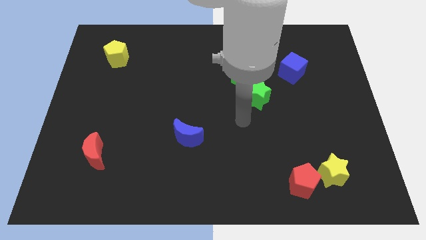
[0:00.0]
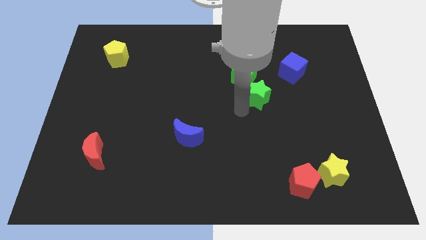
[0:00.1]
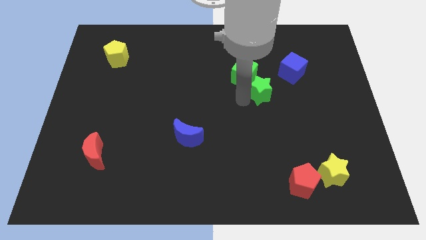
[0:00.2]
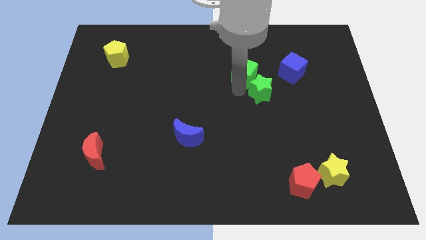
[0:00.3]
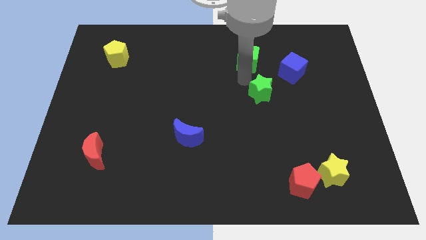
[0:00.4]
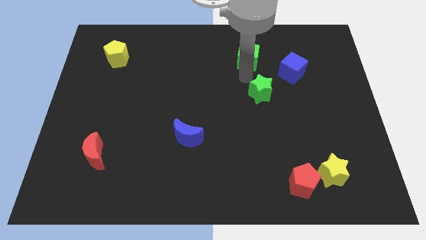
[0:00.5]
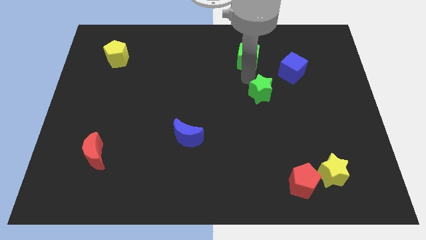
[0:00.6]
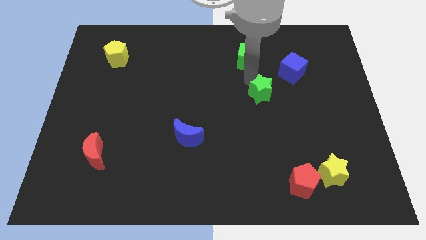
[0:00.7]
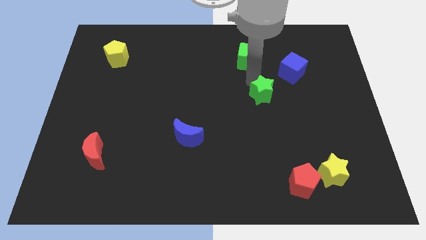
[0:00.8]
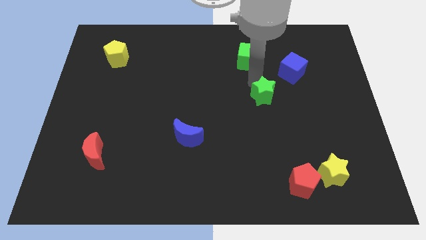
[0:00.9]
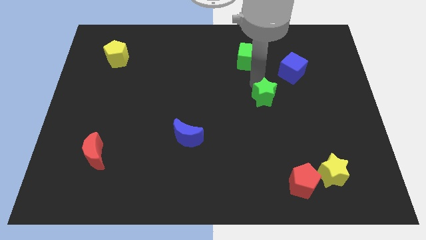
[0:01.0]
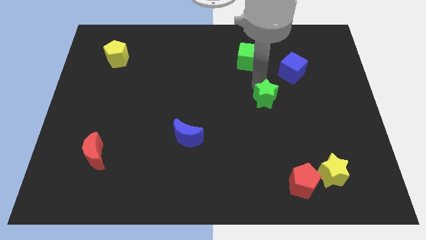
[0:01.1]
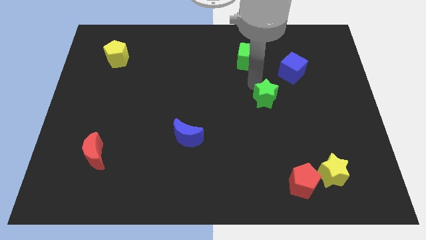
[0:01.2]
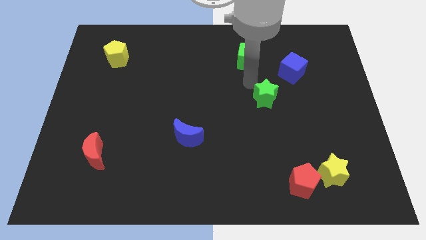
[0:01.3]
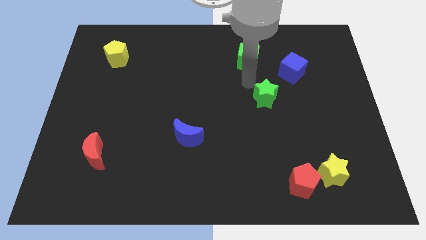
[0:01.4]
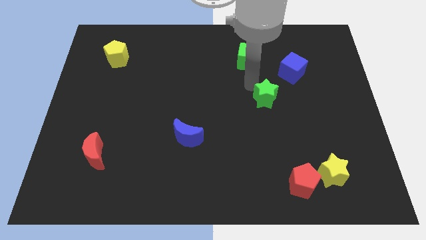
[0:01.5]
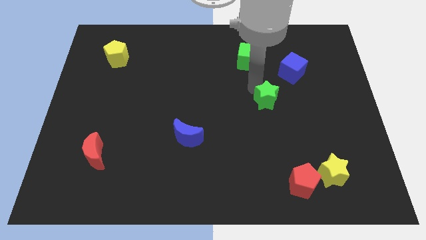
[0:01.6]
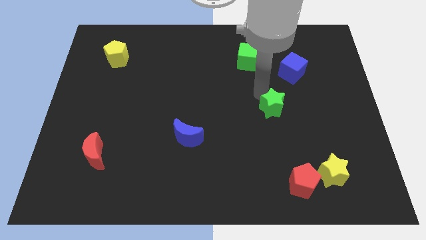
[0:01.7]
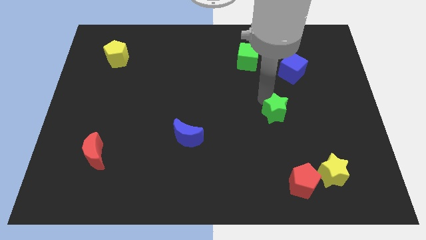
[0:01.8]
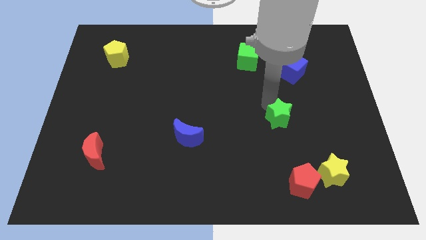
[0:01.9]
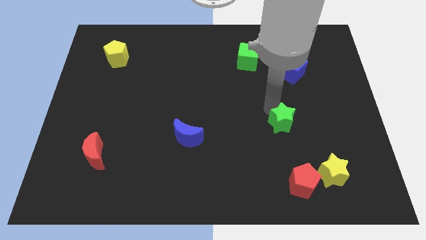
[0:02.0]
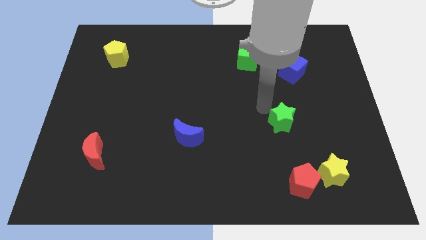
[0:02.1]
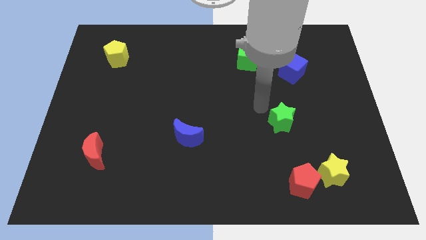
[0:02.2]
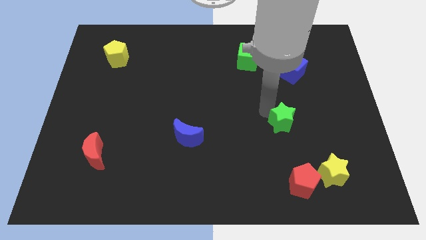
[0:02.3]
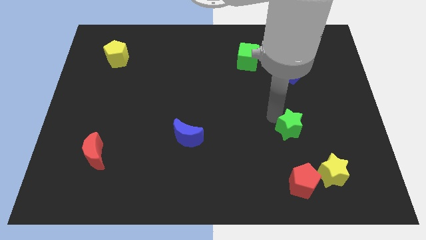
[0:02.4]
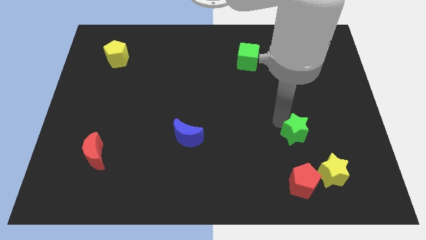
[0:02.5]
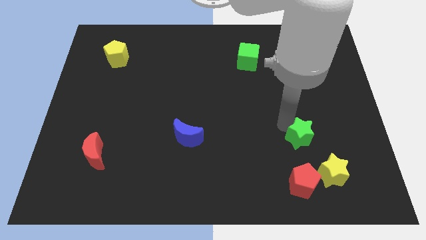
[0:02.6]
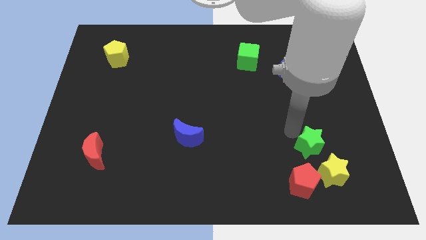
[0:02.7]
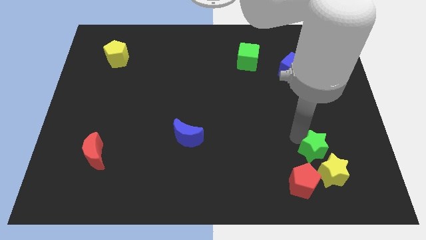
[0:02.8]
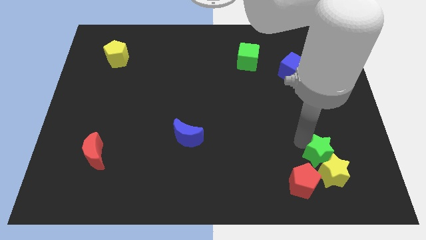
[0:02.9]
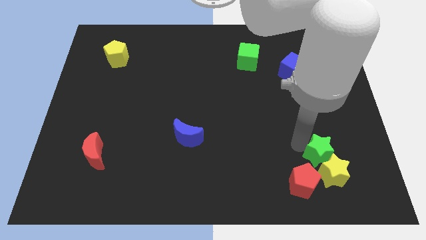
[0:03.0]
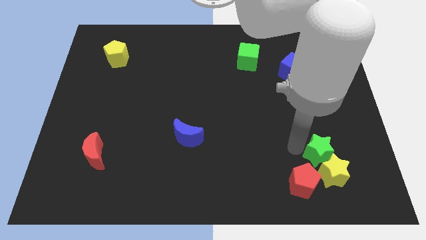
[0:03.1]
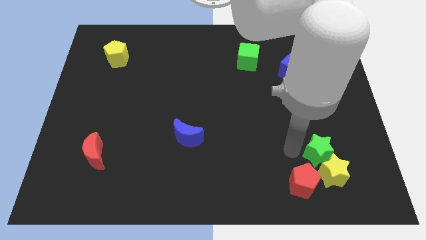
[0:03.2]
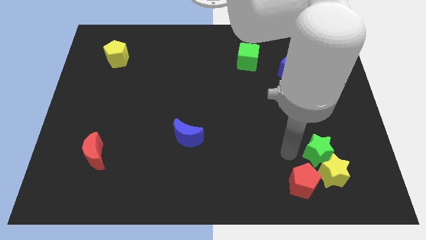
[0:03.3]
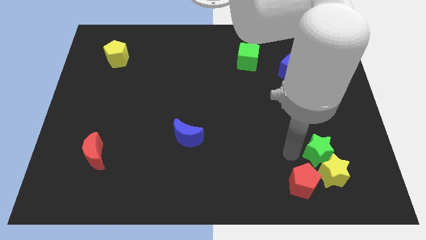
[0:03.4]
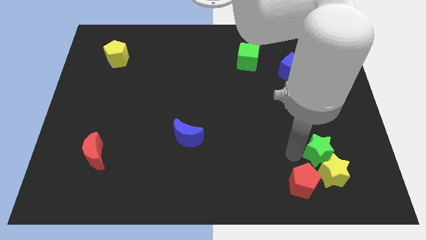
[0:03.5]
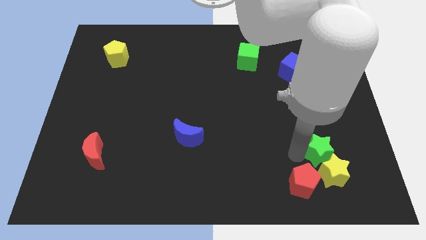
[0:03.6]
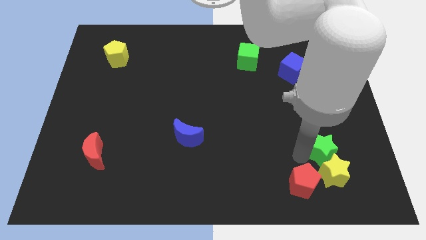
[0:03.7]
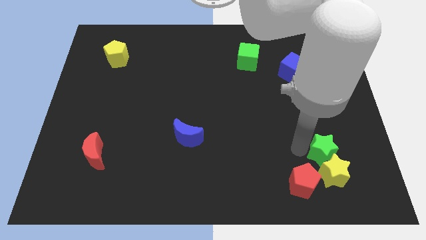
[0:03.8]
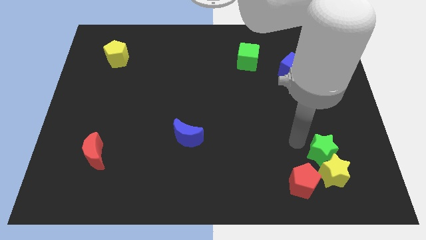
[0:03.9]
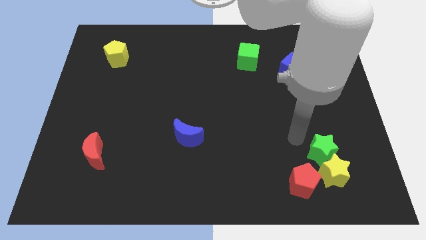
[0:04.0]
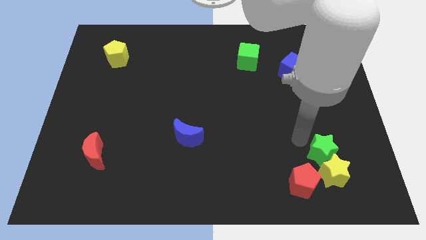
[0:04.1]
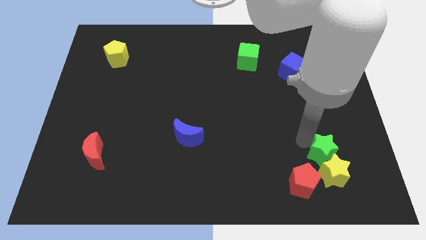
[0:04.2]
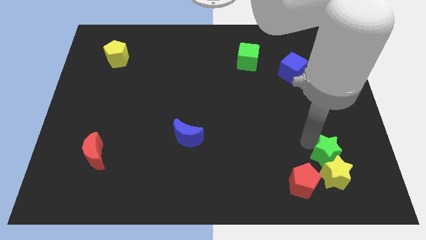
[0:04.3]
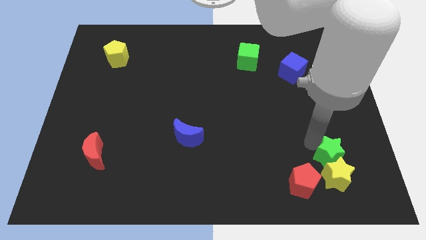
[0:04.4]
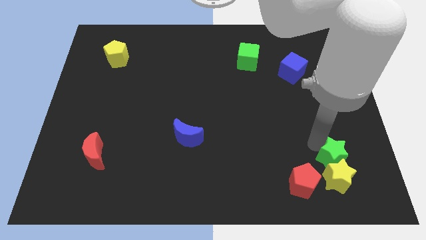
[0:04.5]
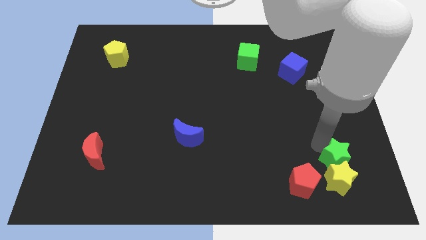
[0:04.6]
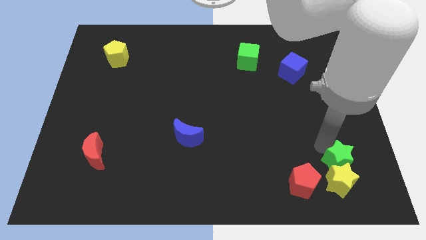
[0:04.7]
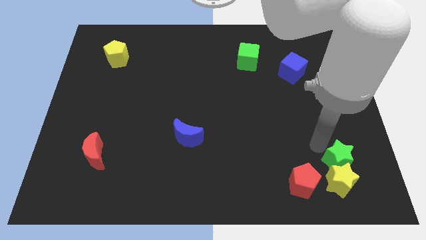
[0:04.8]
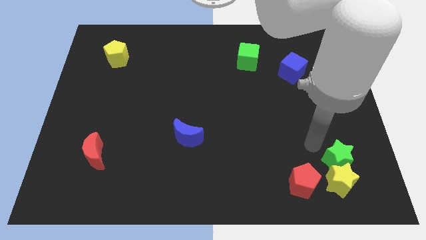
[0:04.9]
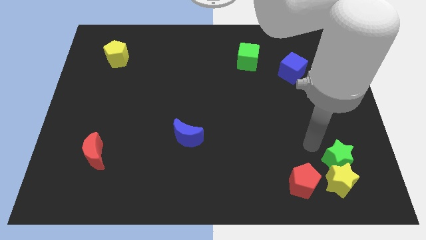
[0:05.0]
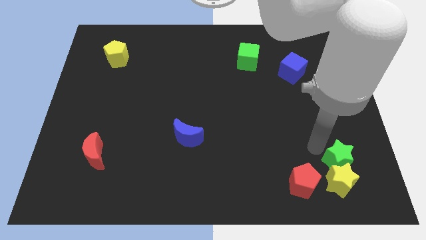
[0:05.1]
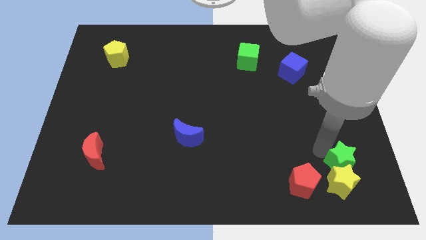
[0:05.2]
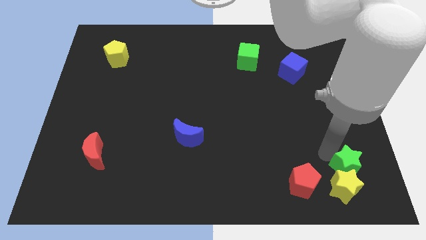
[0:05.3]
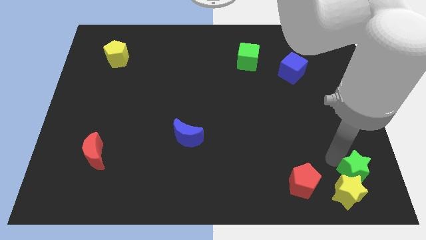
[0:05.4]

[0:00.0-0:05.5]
move the green star to the lower right corner

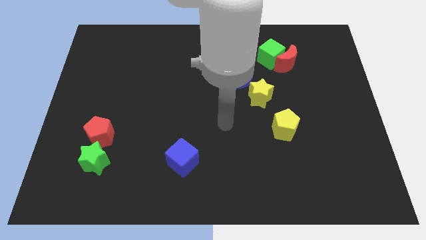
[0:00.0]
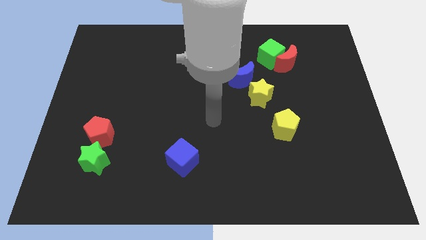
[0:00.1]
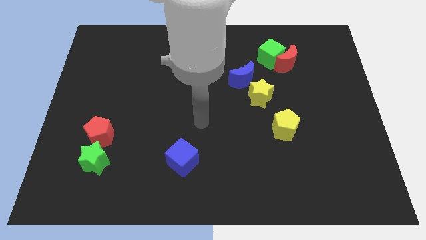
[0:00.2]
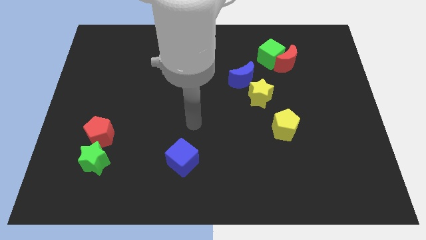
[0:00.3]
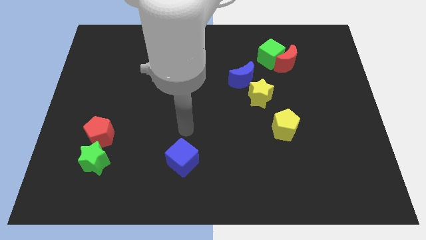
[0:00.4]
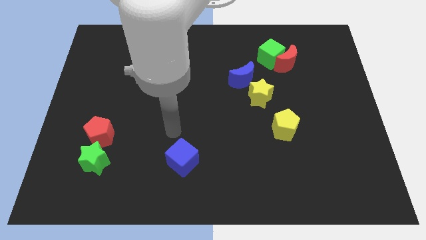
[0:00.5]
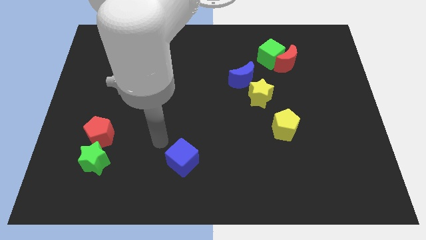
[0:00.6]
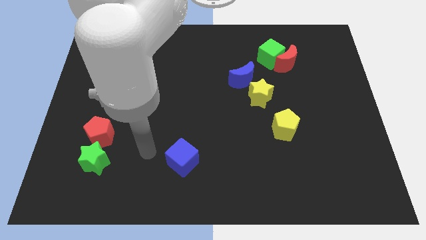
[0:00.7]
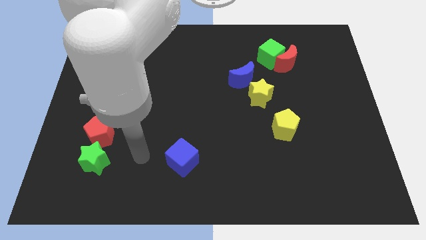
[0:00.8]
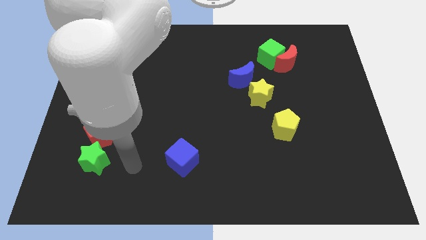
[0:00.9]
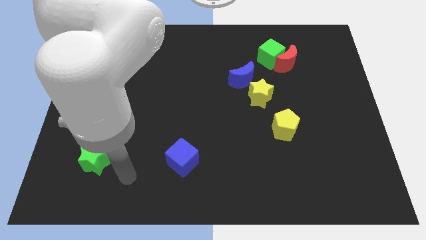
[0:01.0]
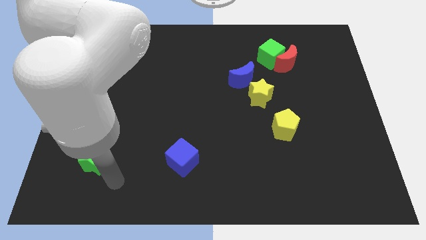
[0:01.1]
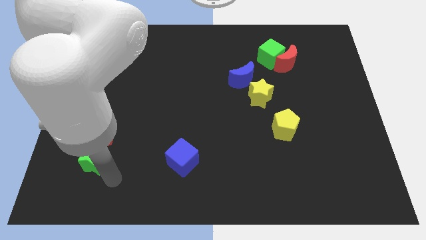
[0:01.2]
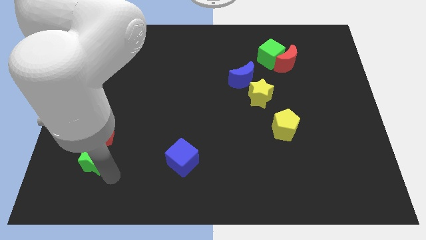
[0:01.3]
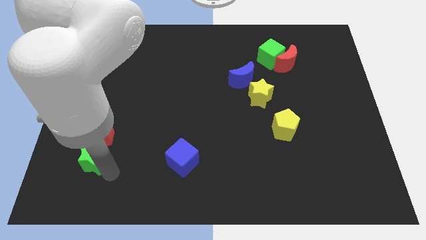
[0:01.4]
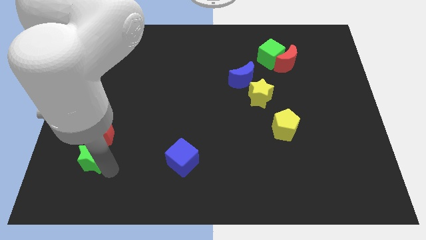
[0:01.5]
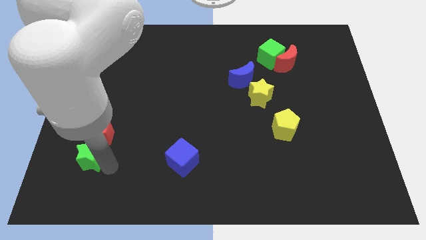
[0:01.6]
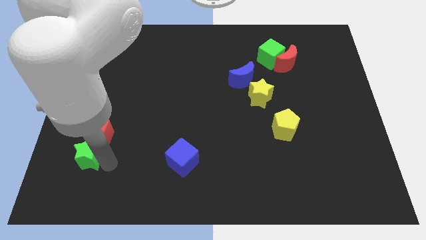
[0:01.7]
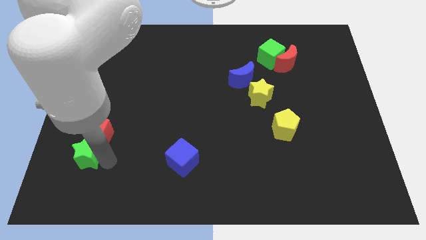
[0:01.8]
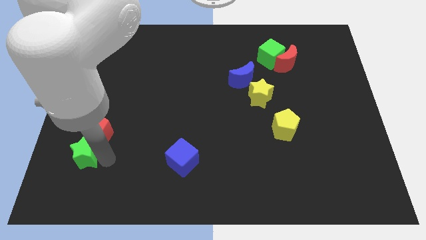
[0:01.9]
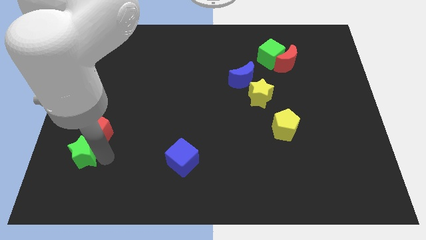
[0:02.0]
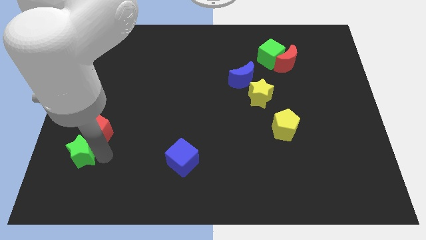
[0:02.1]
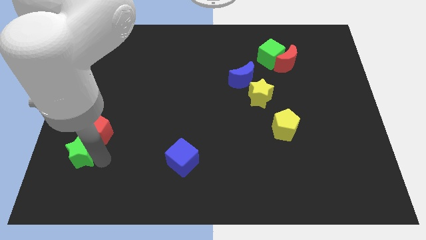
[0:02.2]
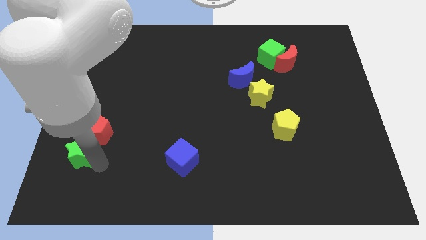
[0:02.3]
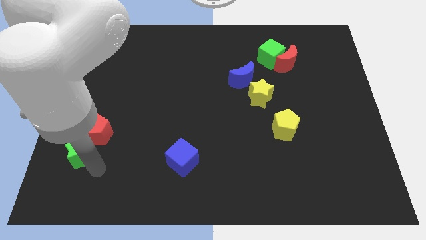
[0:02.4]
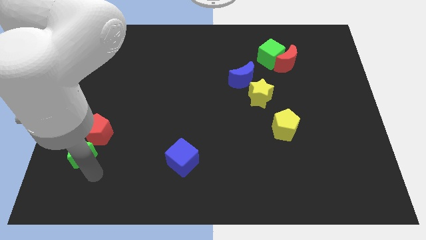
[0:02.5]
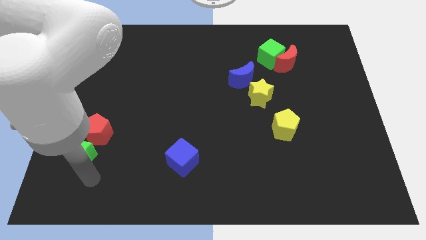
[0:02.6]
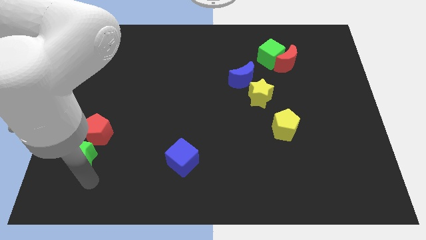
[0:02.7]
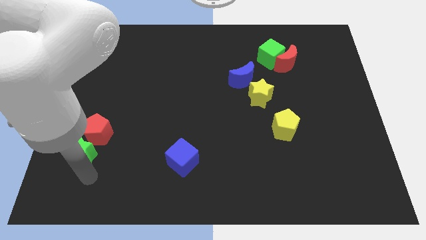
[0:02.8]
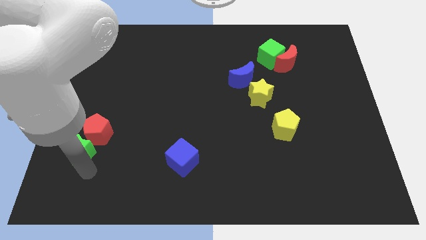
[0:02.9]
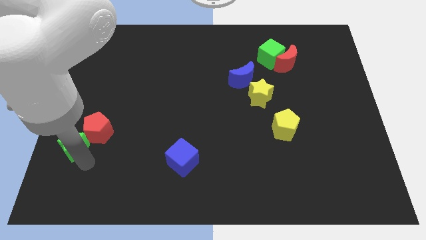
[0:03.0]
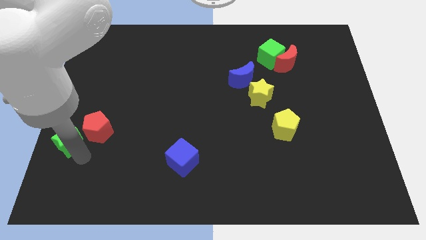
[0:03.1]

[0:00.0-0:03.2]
slide the green star to the center left
